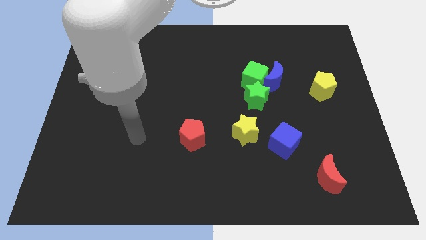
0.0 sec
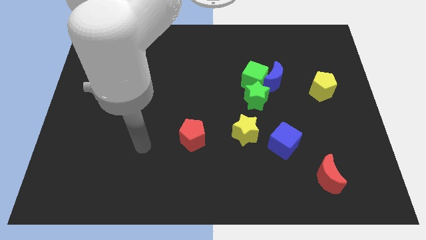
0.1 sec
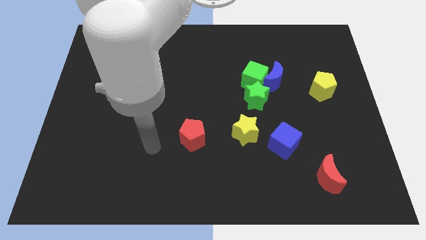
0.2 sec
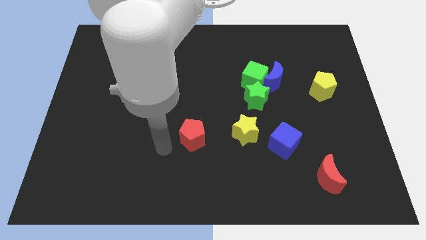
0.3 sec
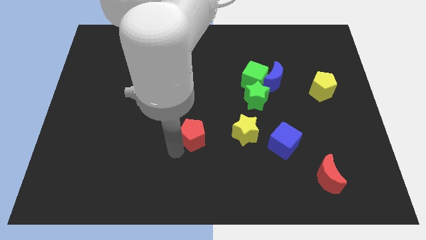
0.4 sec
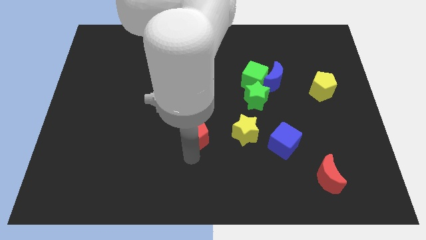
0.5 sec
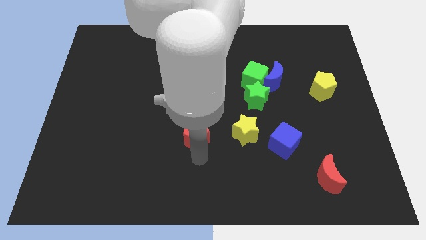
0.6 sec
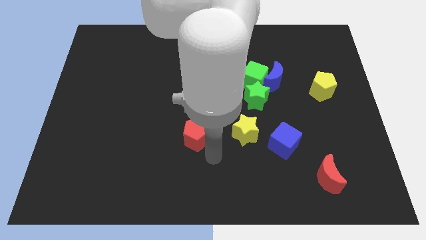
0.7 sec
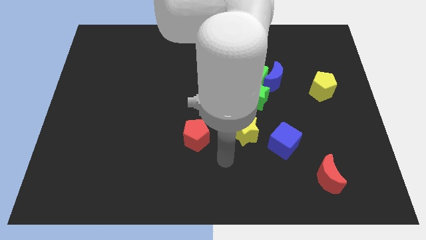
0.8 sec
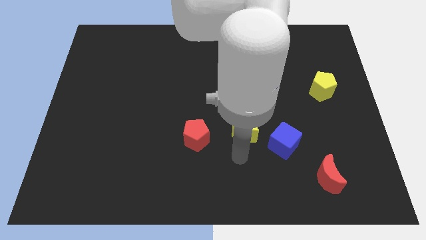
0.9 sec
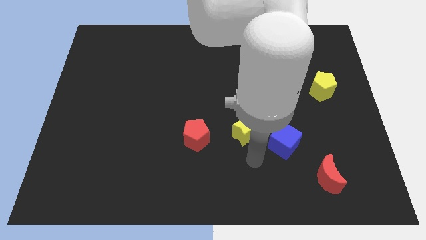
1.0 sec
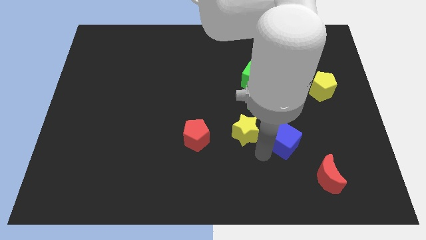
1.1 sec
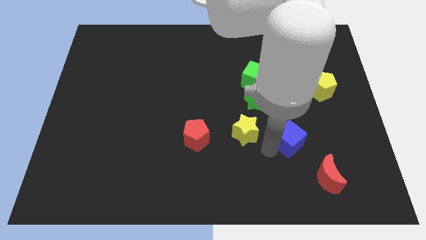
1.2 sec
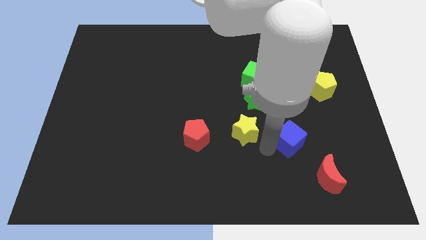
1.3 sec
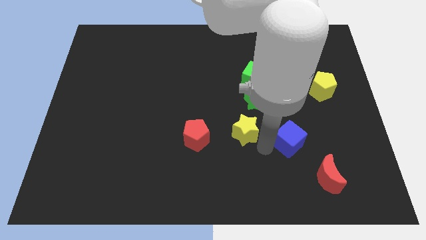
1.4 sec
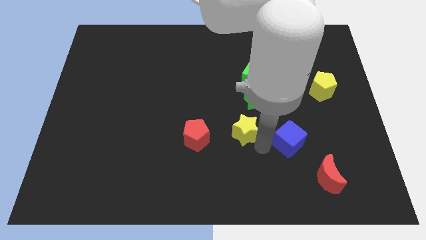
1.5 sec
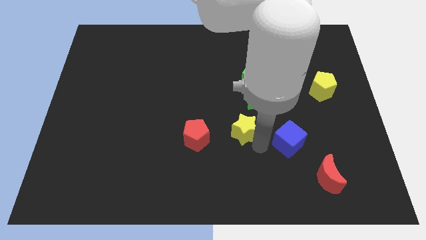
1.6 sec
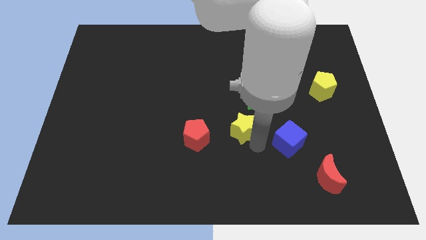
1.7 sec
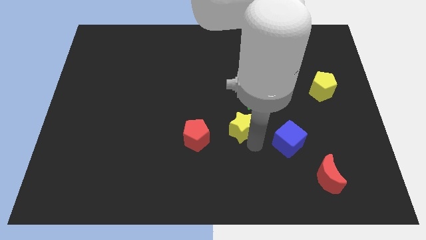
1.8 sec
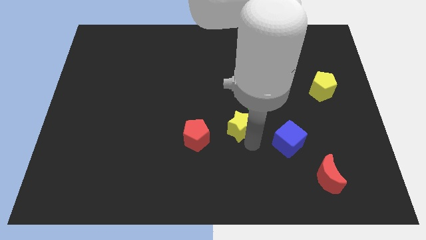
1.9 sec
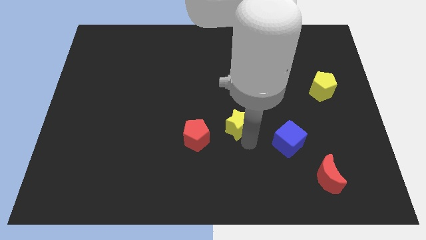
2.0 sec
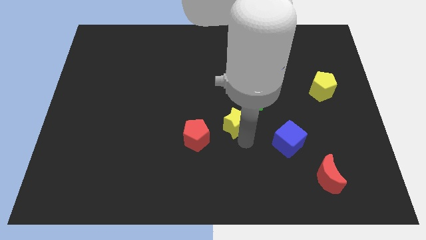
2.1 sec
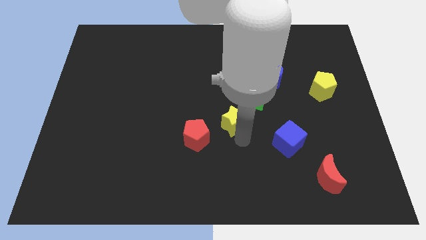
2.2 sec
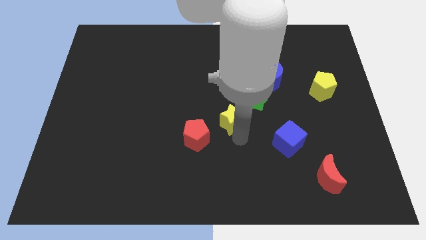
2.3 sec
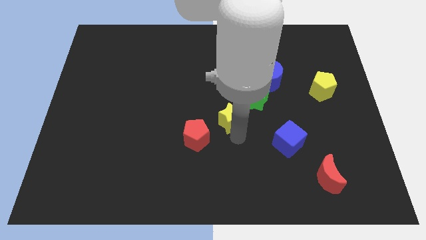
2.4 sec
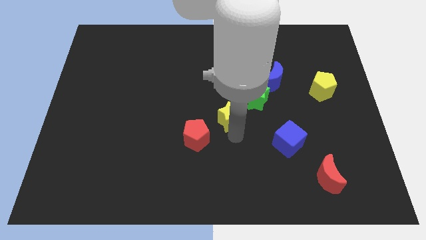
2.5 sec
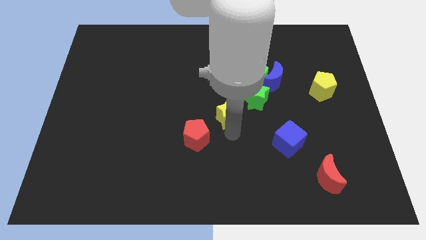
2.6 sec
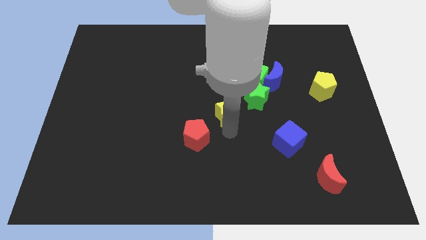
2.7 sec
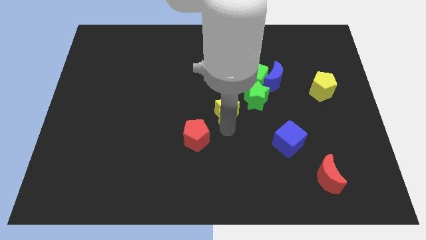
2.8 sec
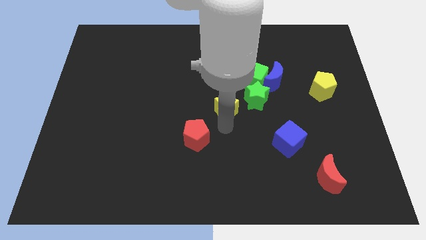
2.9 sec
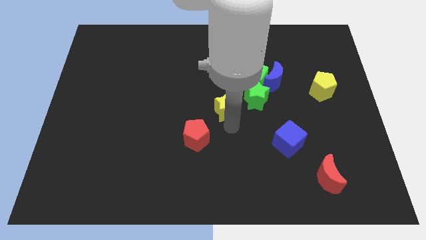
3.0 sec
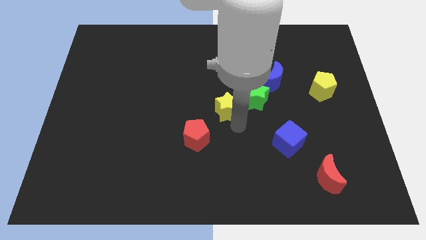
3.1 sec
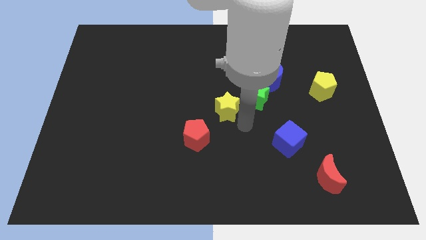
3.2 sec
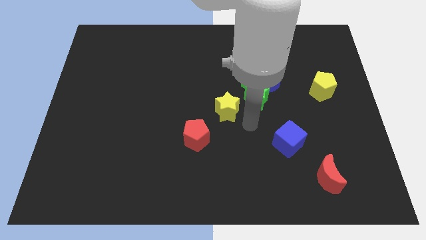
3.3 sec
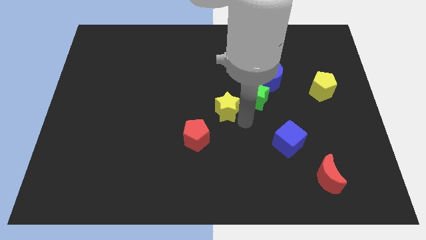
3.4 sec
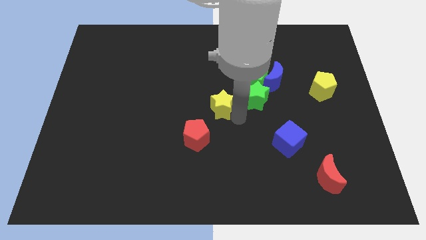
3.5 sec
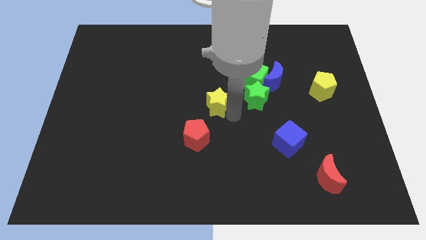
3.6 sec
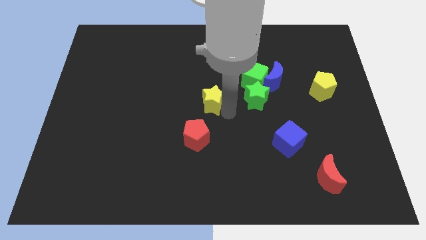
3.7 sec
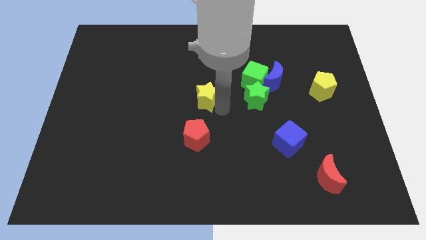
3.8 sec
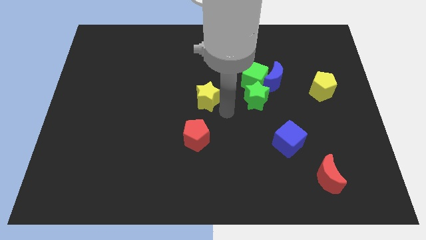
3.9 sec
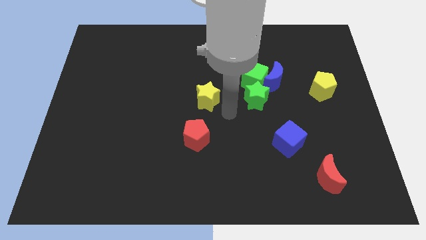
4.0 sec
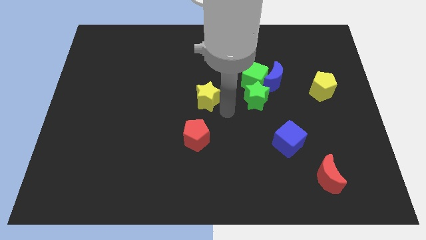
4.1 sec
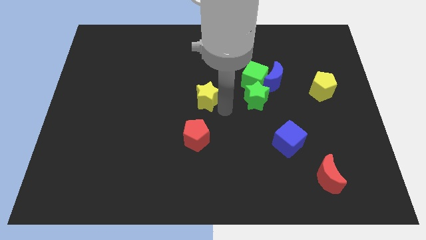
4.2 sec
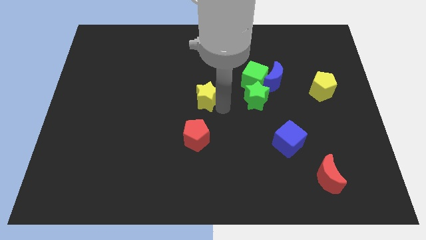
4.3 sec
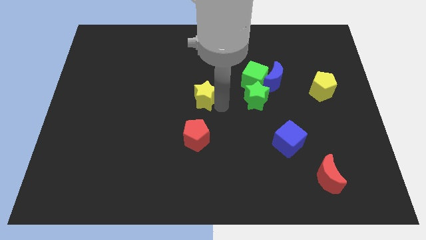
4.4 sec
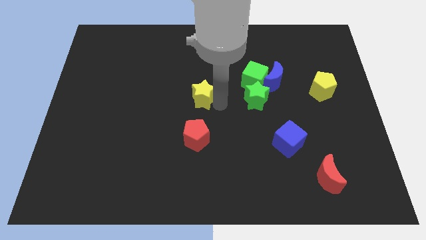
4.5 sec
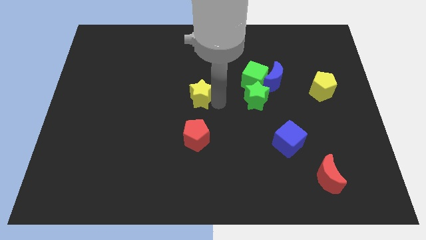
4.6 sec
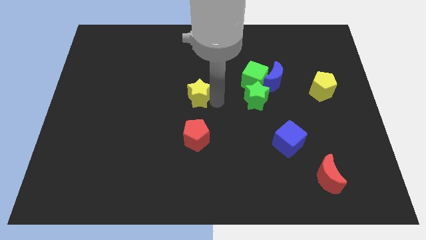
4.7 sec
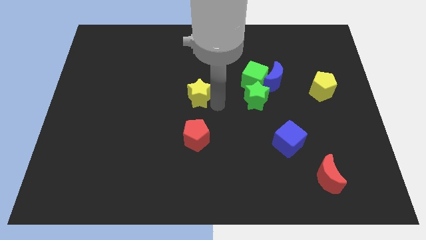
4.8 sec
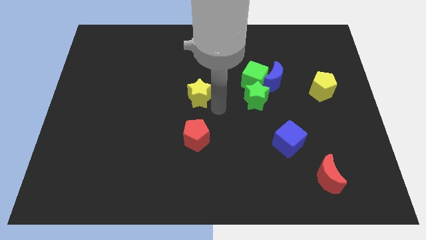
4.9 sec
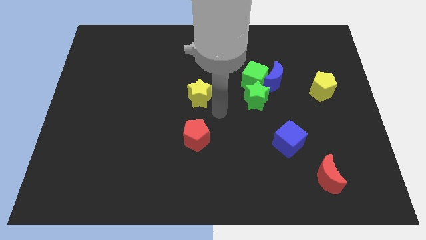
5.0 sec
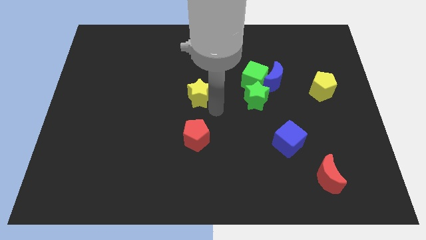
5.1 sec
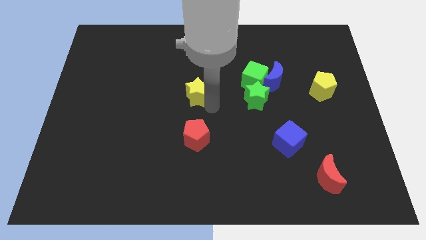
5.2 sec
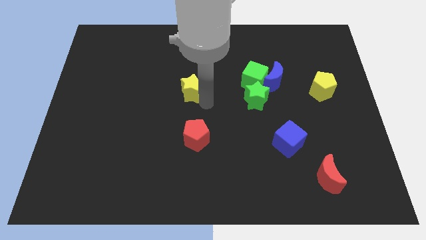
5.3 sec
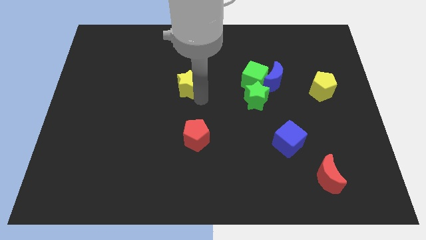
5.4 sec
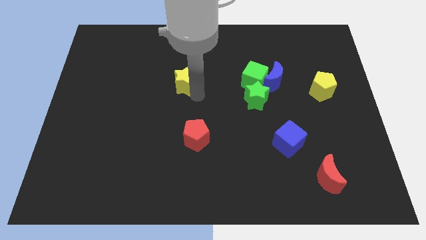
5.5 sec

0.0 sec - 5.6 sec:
push the yellow star up and left

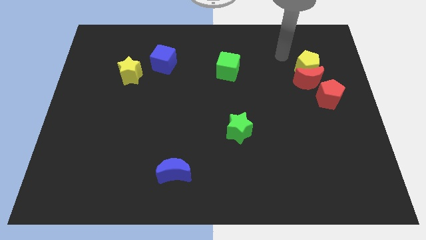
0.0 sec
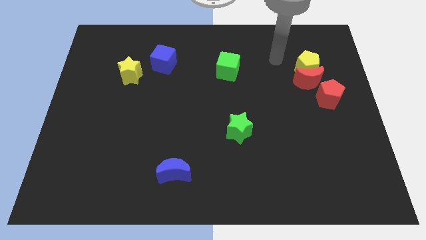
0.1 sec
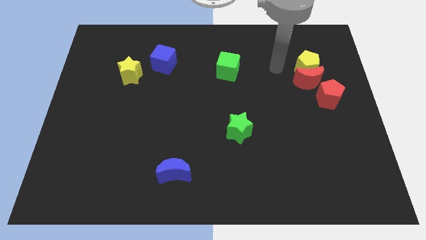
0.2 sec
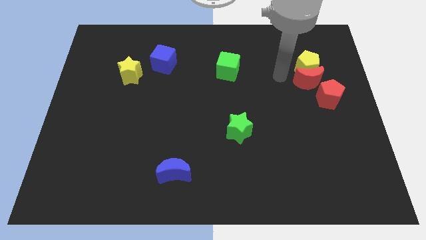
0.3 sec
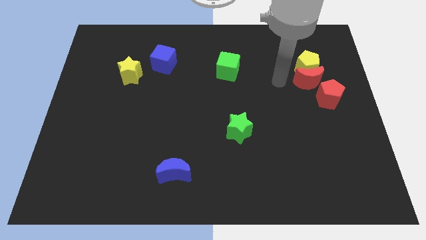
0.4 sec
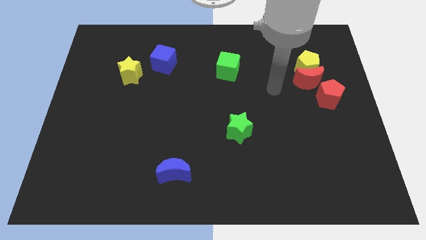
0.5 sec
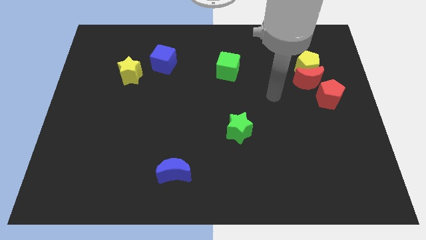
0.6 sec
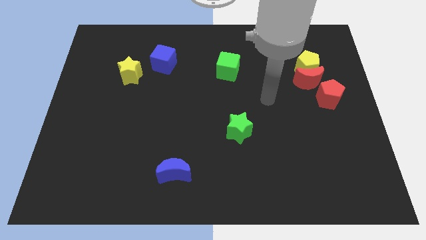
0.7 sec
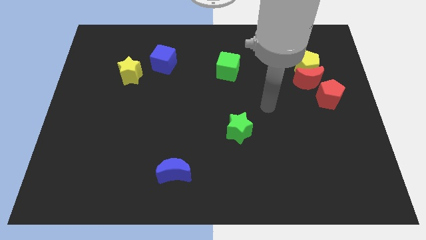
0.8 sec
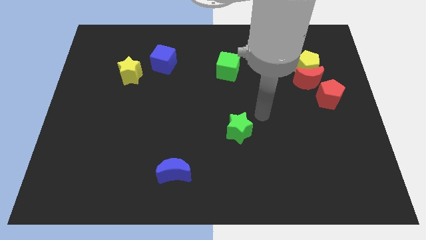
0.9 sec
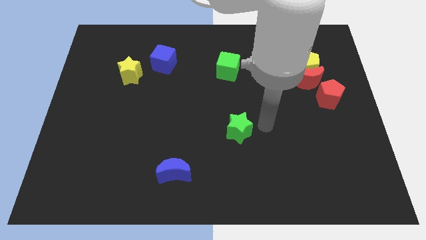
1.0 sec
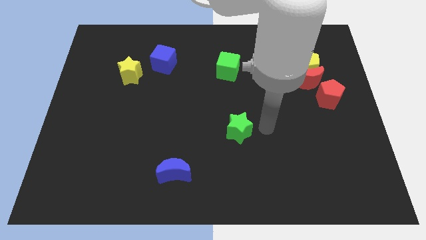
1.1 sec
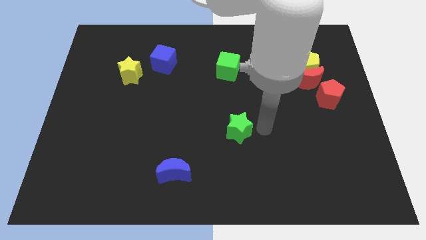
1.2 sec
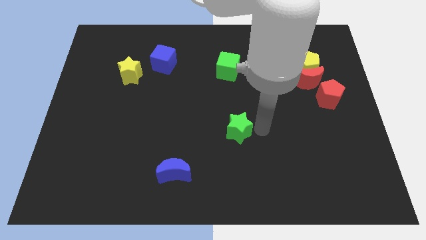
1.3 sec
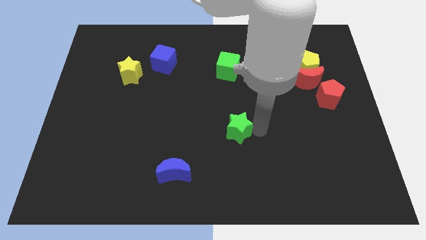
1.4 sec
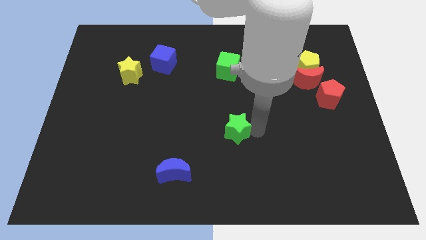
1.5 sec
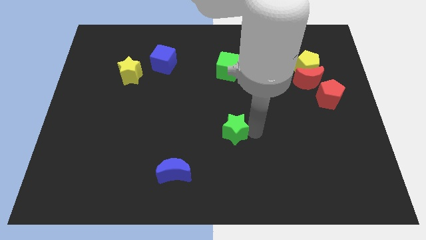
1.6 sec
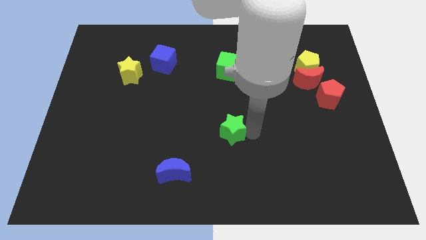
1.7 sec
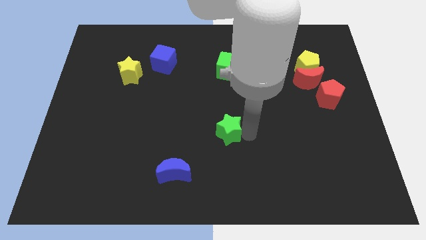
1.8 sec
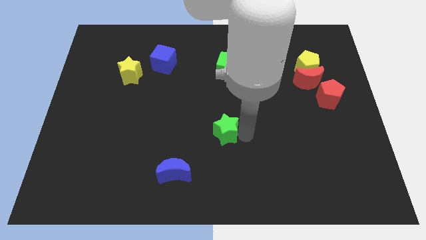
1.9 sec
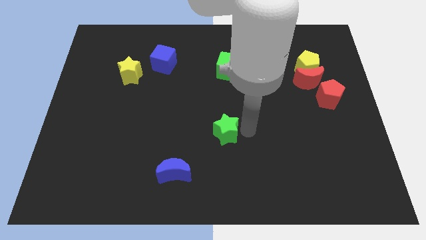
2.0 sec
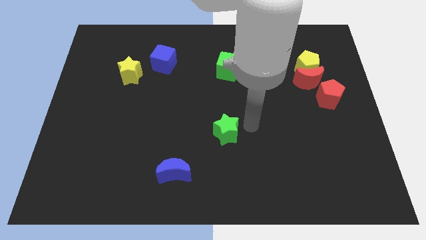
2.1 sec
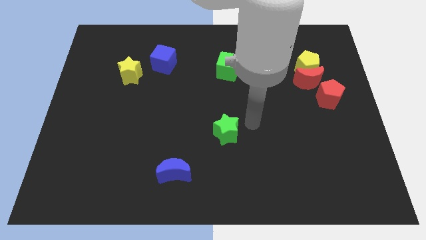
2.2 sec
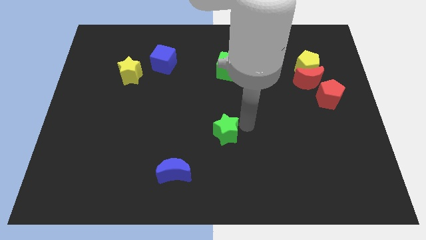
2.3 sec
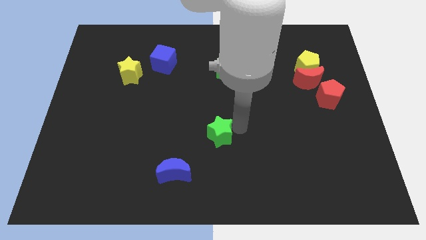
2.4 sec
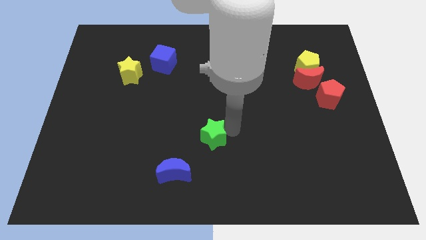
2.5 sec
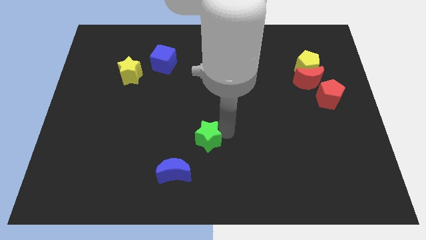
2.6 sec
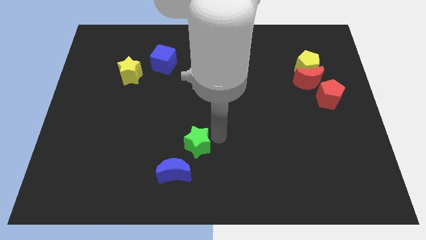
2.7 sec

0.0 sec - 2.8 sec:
slightly push the green star to the left

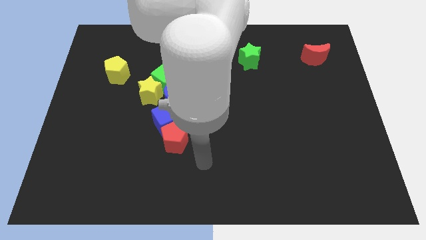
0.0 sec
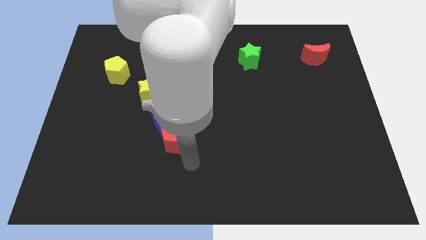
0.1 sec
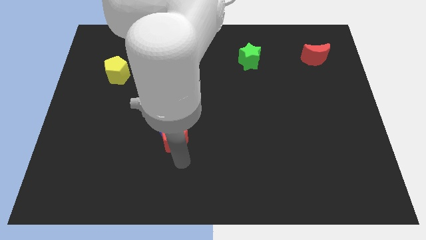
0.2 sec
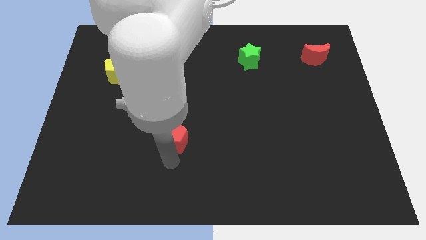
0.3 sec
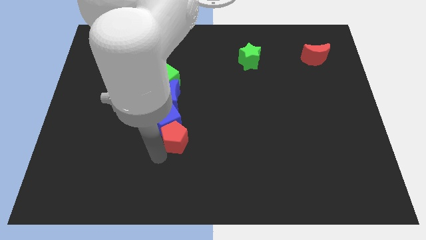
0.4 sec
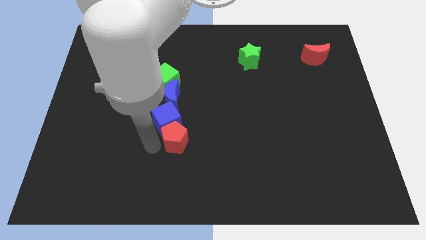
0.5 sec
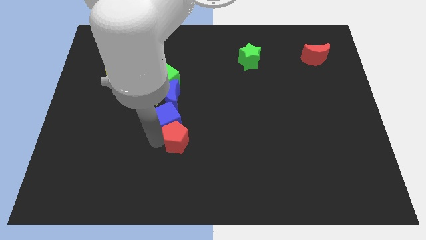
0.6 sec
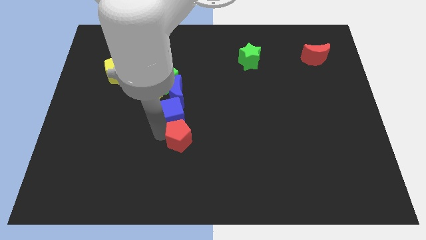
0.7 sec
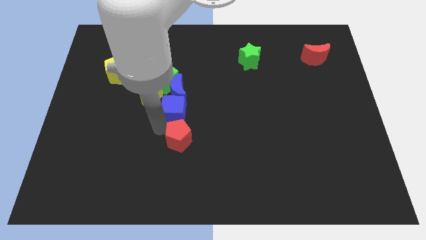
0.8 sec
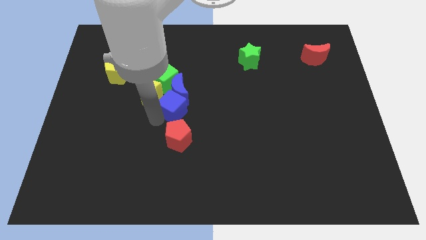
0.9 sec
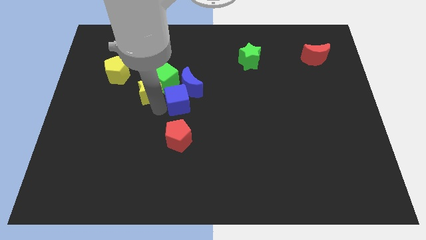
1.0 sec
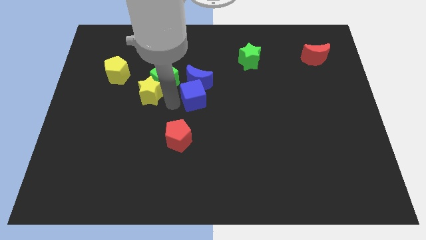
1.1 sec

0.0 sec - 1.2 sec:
slightly slide the blue moon up and then to the right
